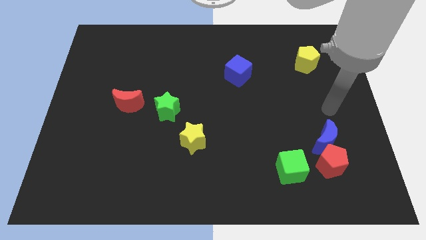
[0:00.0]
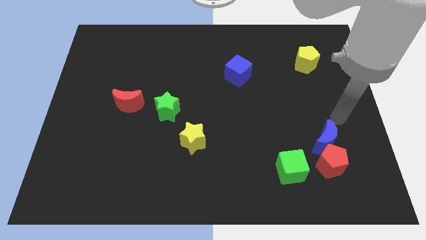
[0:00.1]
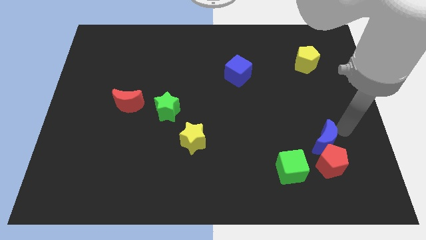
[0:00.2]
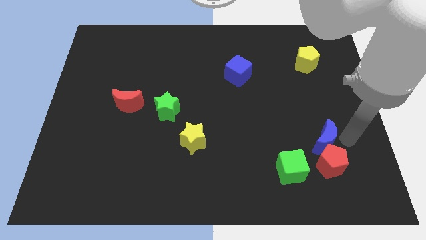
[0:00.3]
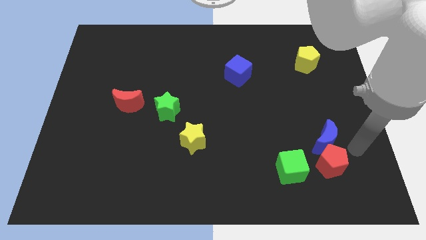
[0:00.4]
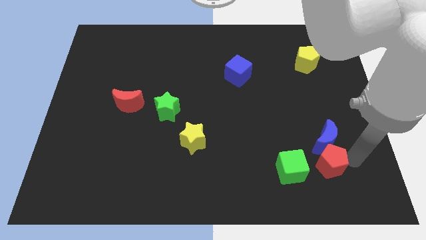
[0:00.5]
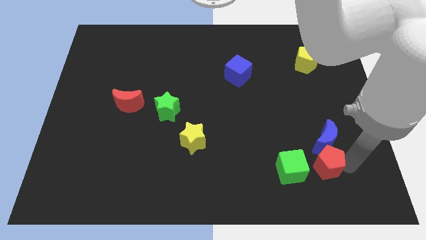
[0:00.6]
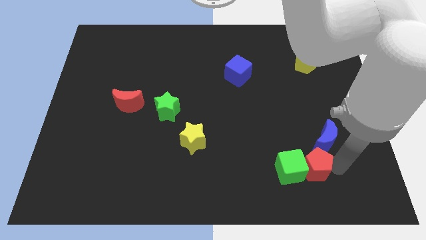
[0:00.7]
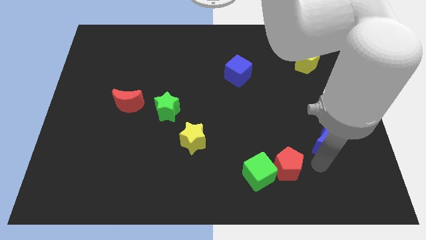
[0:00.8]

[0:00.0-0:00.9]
pull the blue moon apart from the red pentagon

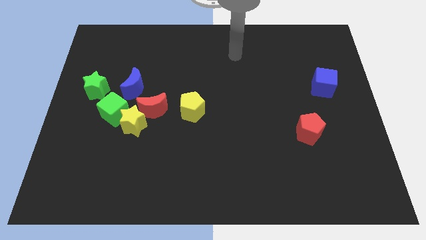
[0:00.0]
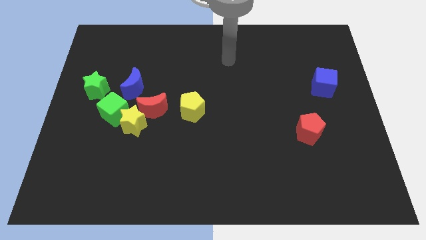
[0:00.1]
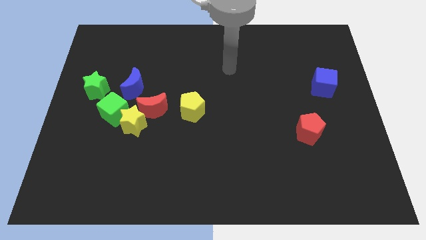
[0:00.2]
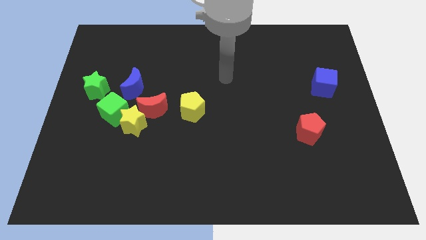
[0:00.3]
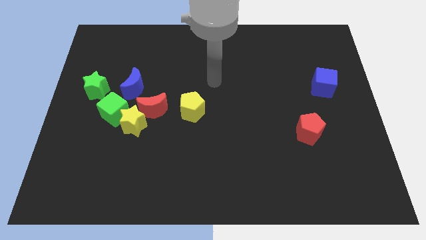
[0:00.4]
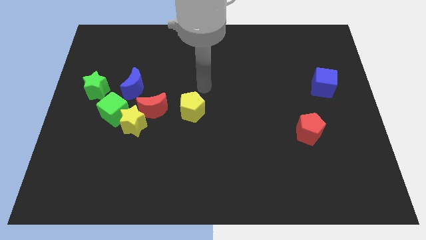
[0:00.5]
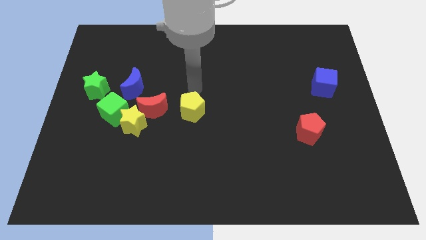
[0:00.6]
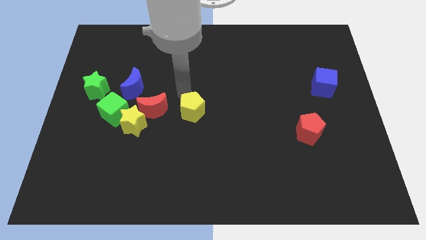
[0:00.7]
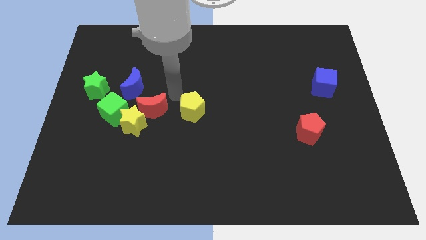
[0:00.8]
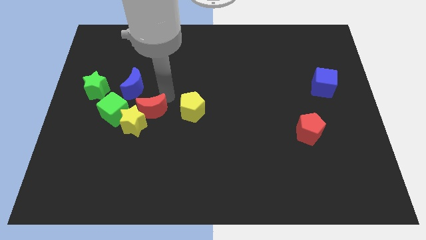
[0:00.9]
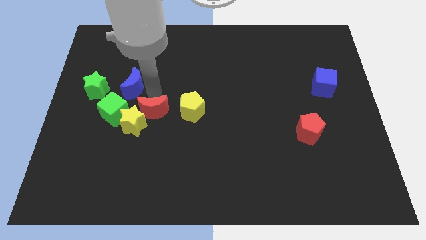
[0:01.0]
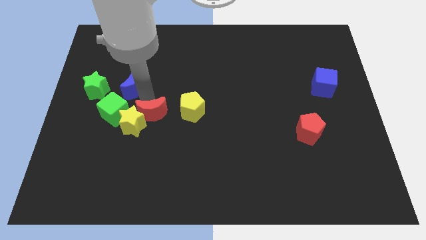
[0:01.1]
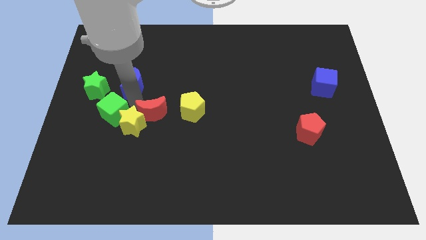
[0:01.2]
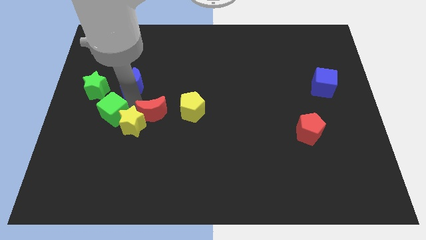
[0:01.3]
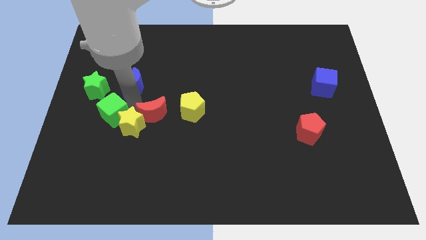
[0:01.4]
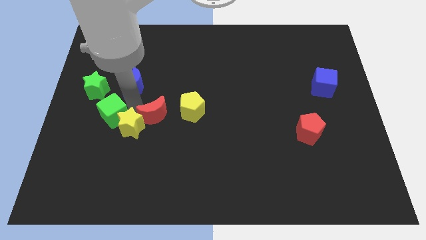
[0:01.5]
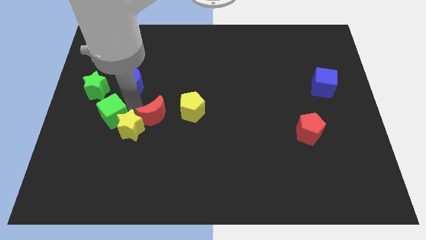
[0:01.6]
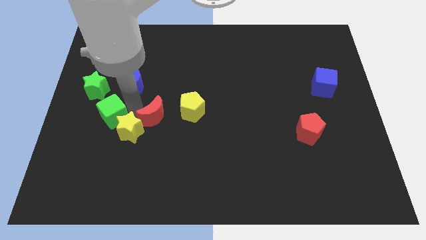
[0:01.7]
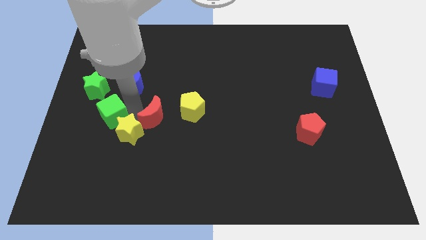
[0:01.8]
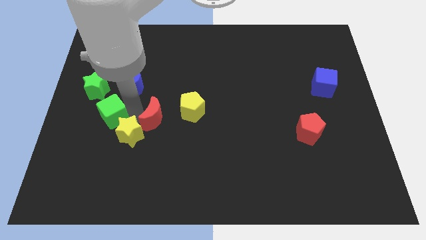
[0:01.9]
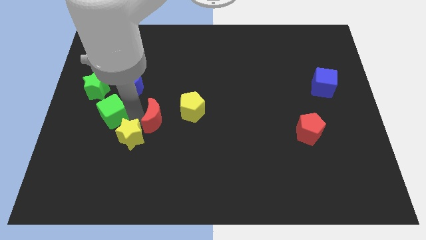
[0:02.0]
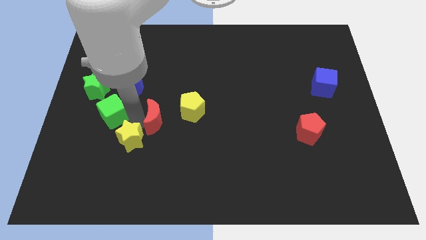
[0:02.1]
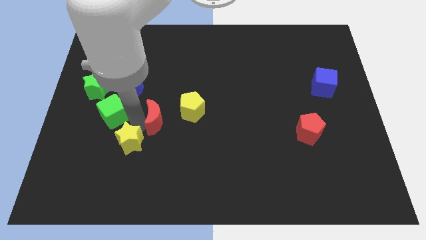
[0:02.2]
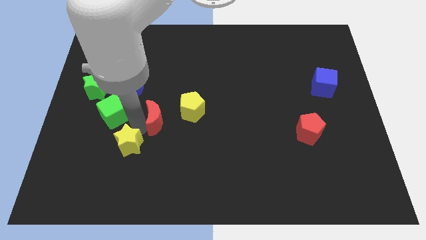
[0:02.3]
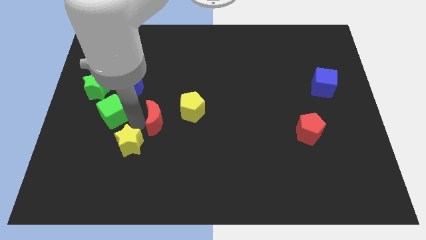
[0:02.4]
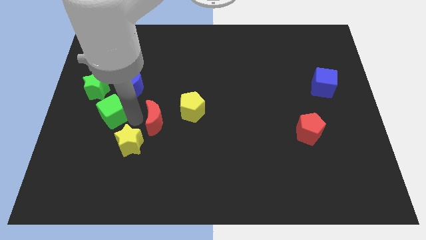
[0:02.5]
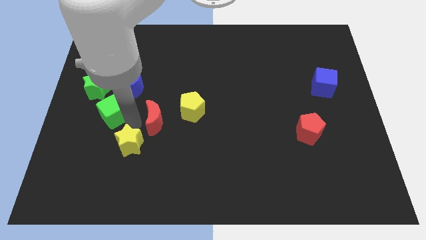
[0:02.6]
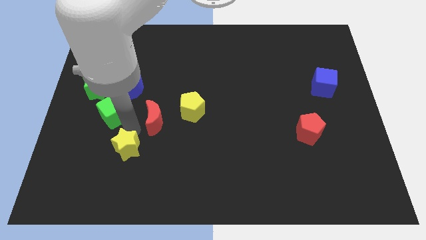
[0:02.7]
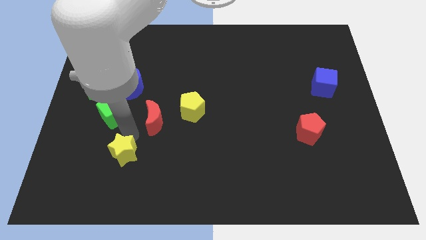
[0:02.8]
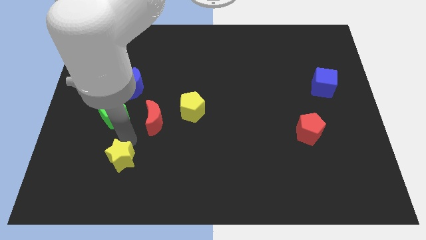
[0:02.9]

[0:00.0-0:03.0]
separate the yellow star from the green cube and red moon

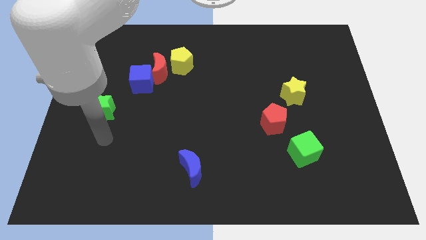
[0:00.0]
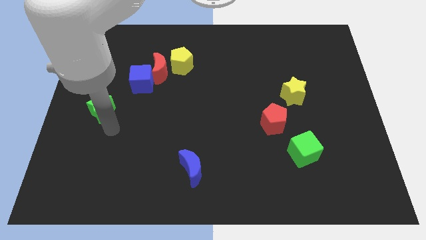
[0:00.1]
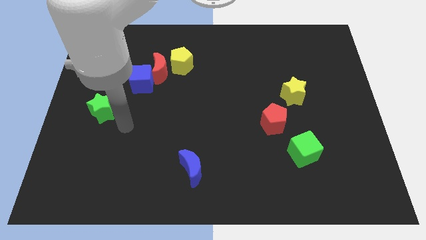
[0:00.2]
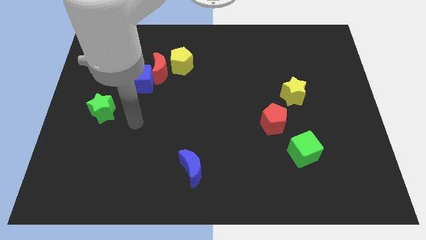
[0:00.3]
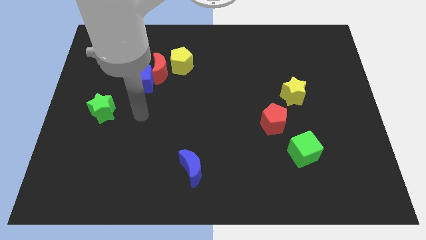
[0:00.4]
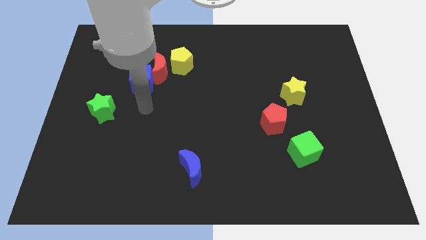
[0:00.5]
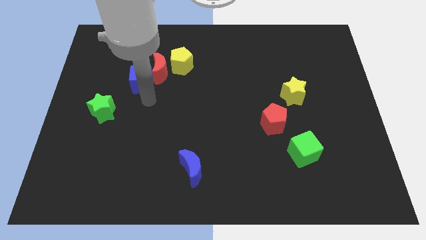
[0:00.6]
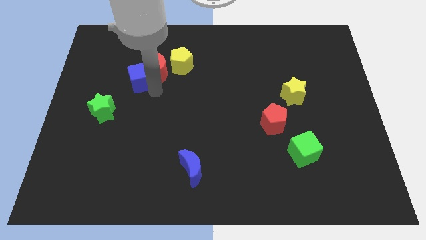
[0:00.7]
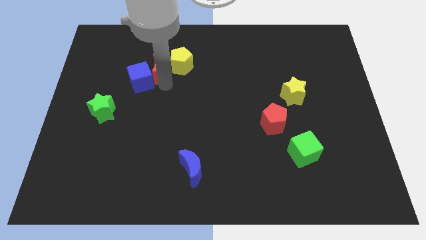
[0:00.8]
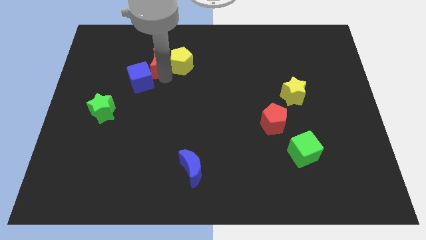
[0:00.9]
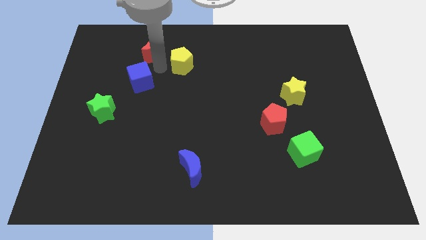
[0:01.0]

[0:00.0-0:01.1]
separate the blue cube from the red moon

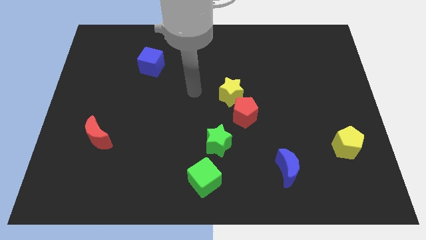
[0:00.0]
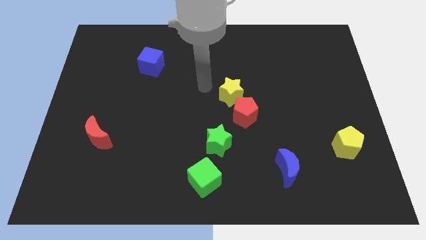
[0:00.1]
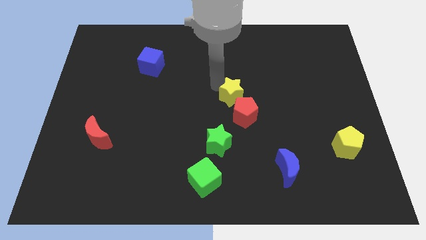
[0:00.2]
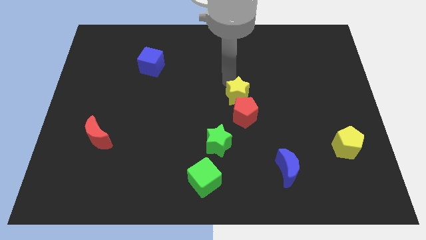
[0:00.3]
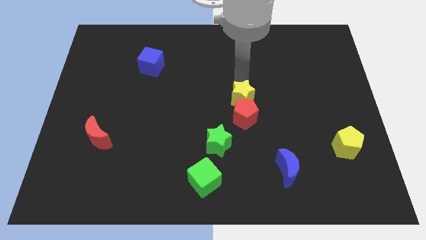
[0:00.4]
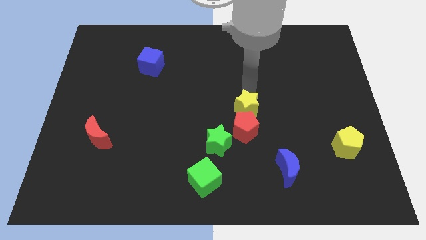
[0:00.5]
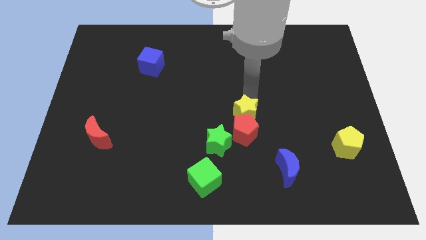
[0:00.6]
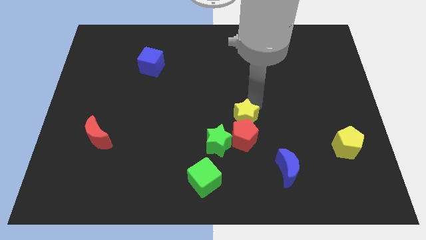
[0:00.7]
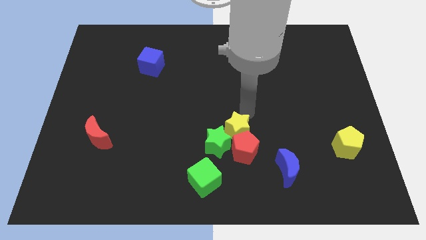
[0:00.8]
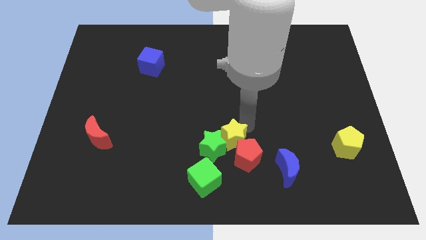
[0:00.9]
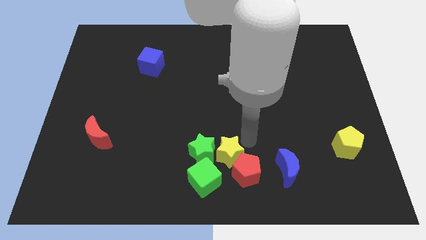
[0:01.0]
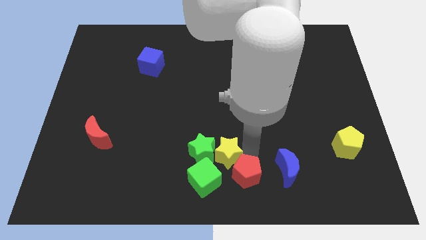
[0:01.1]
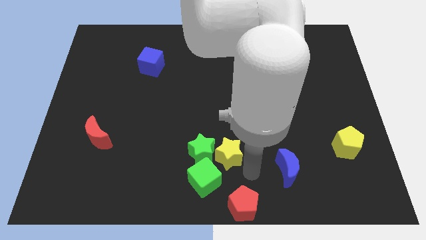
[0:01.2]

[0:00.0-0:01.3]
separate the yellow star from the red pentagon

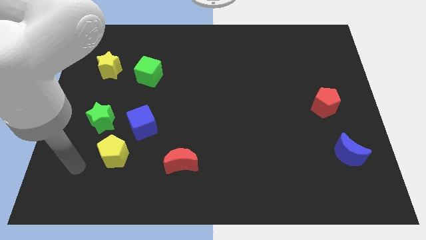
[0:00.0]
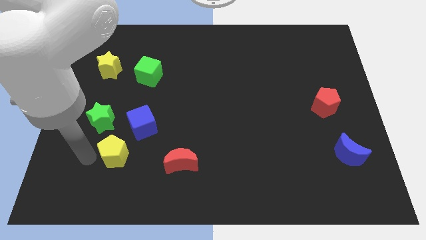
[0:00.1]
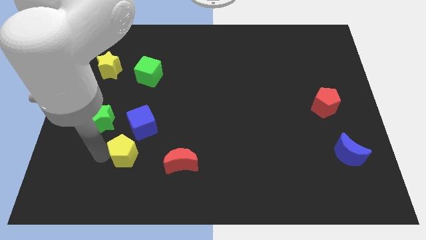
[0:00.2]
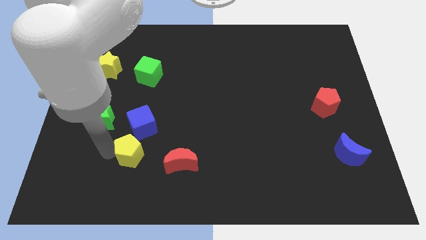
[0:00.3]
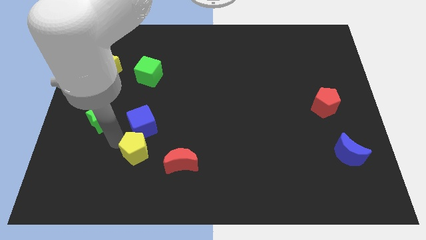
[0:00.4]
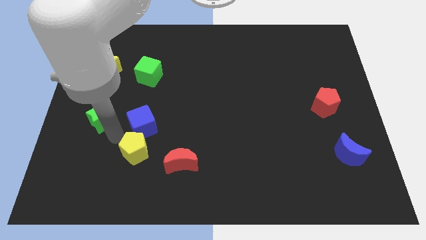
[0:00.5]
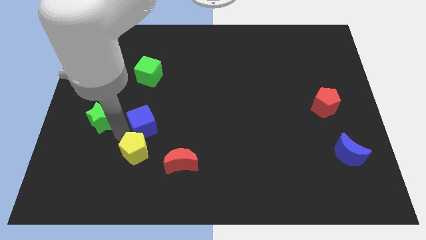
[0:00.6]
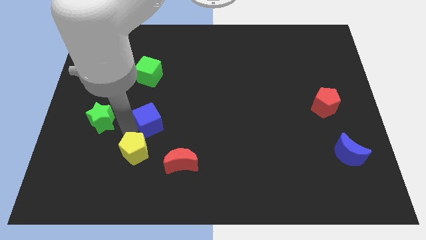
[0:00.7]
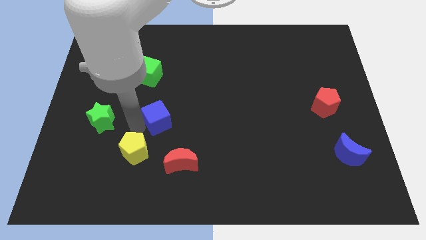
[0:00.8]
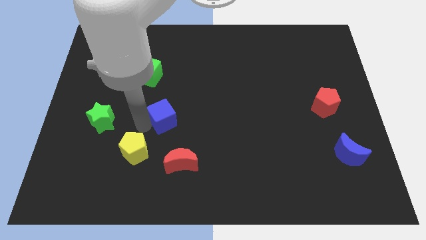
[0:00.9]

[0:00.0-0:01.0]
pull the blue cube apart from the yellow pentagon and green star

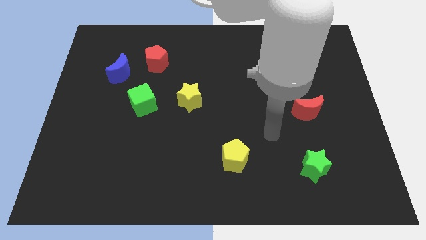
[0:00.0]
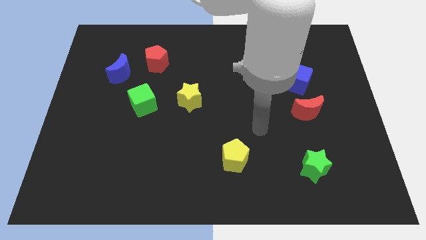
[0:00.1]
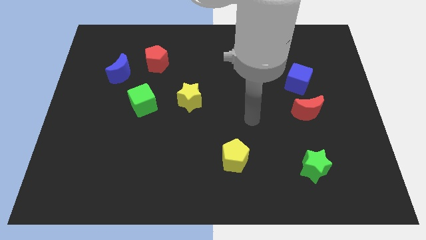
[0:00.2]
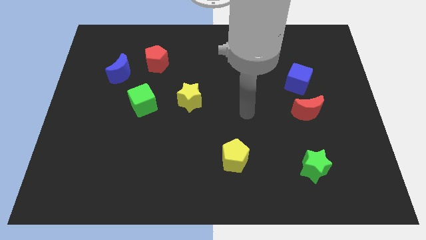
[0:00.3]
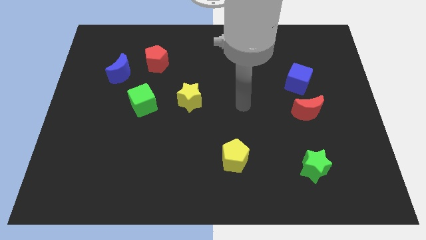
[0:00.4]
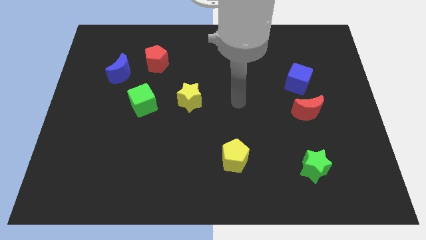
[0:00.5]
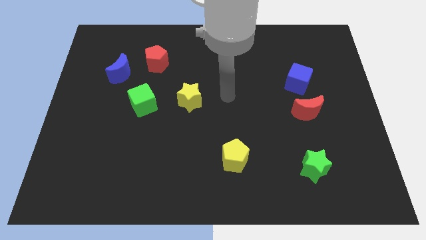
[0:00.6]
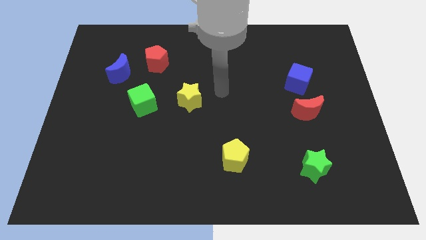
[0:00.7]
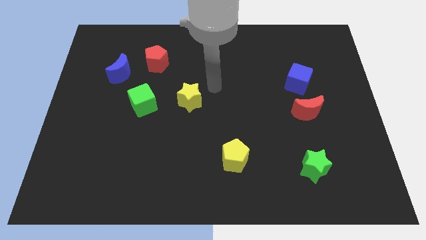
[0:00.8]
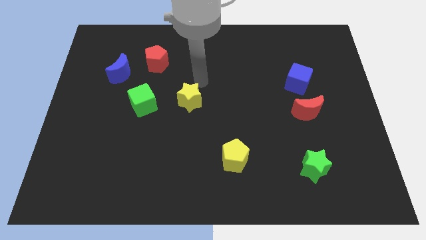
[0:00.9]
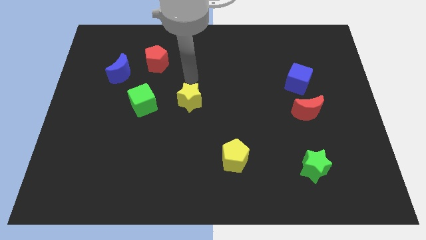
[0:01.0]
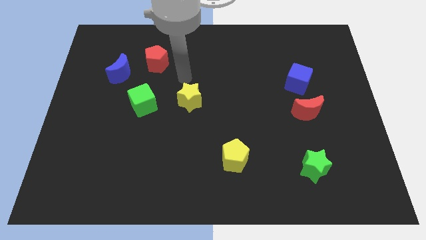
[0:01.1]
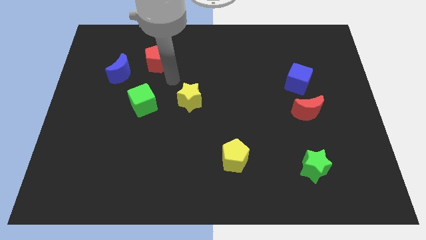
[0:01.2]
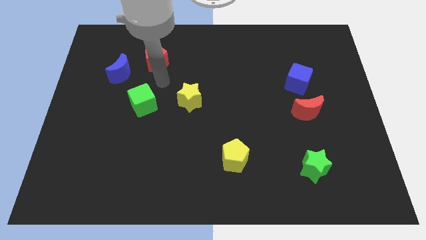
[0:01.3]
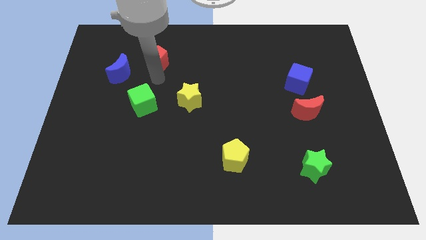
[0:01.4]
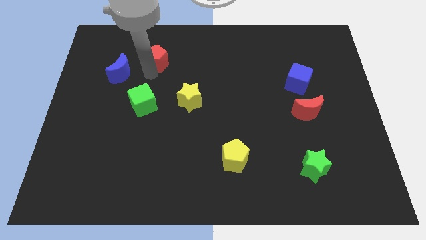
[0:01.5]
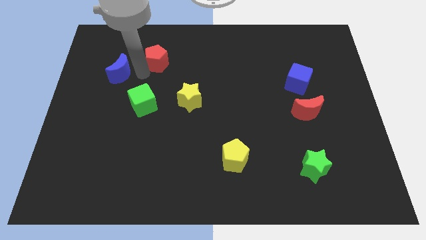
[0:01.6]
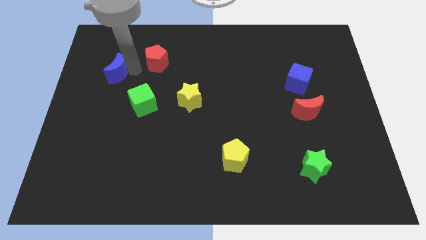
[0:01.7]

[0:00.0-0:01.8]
move the red pentagon away from the blue moon

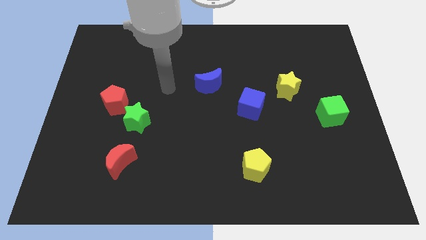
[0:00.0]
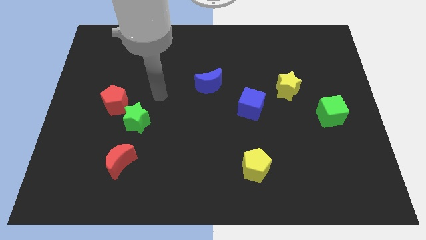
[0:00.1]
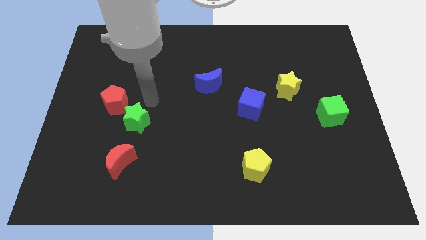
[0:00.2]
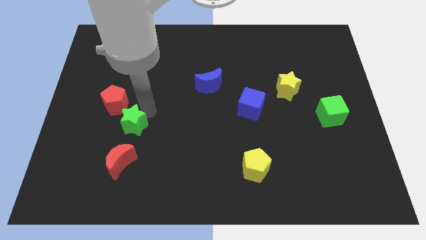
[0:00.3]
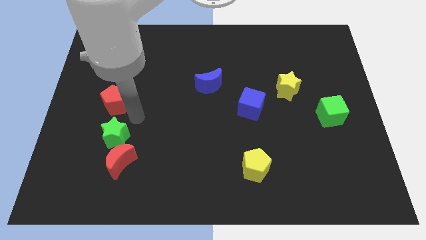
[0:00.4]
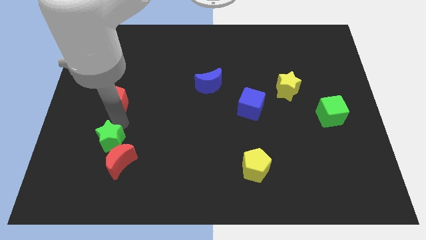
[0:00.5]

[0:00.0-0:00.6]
separate the red pentagon from the green star
